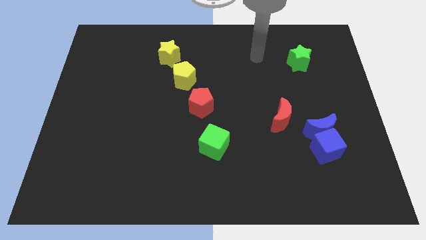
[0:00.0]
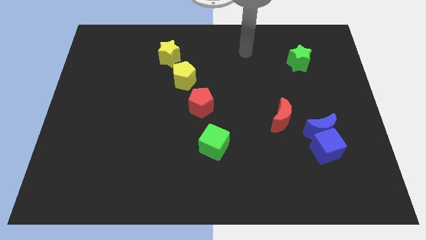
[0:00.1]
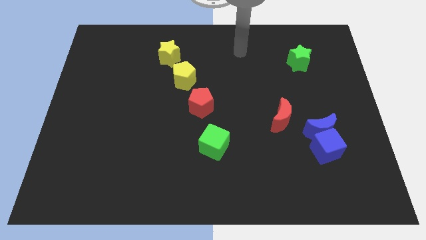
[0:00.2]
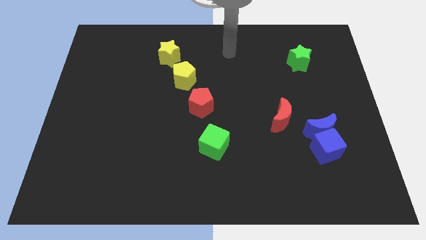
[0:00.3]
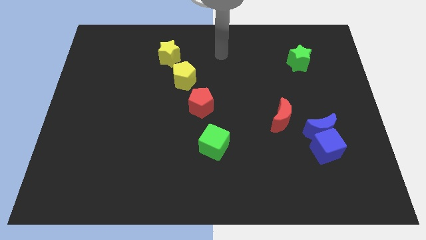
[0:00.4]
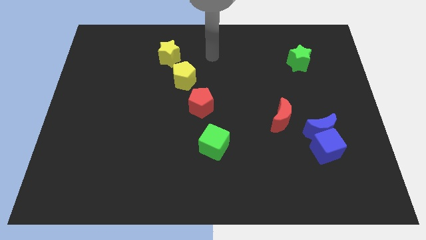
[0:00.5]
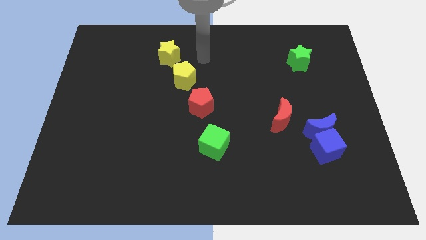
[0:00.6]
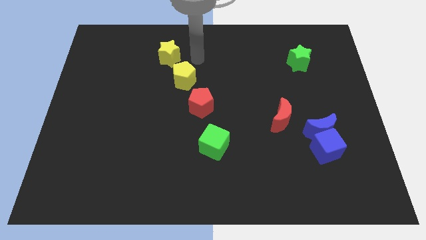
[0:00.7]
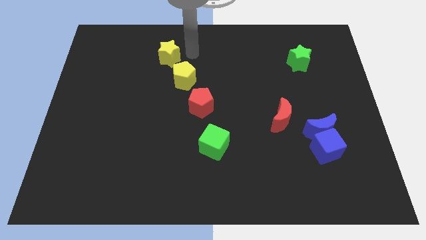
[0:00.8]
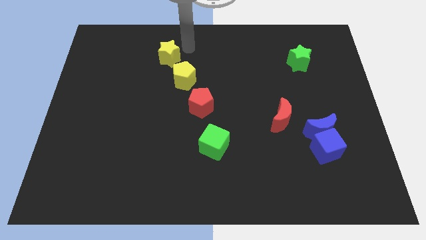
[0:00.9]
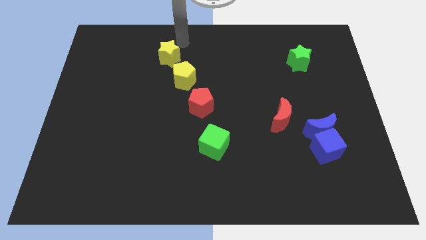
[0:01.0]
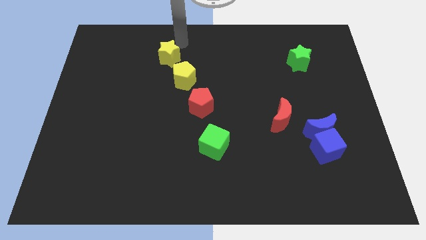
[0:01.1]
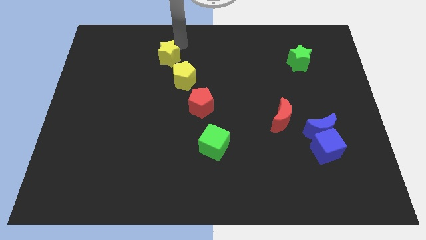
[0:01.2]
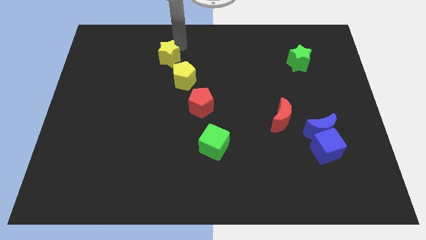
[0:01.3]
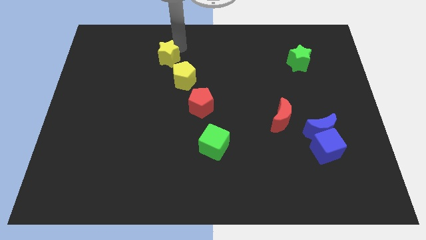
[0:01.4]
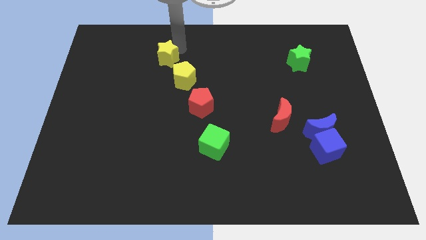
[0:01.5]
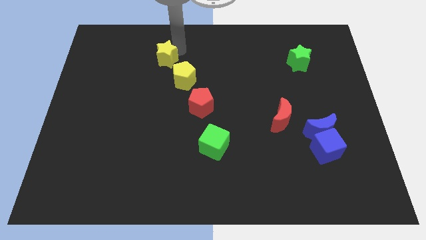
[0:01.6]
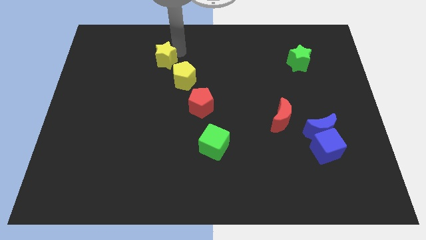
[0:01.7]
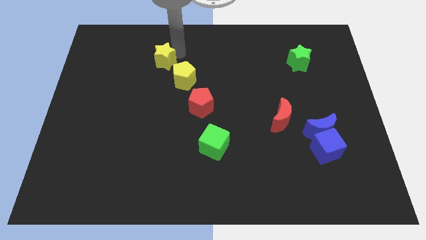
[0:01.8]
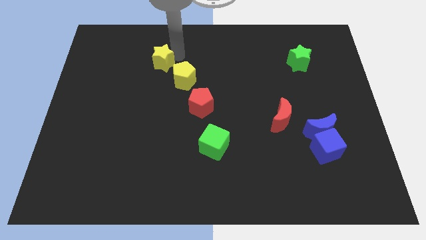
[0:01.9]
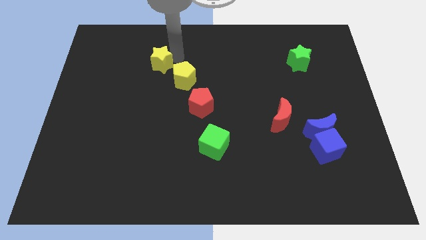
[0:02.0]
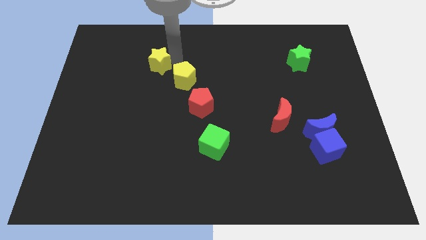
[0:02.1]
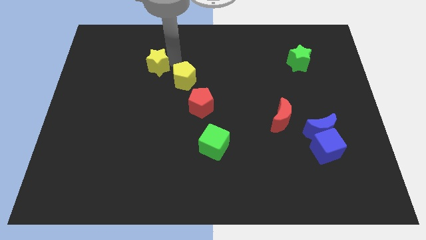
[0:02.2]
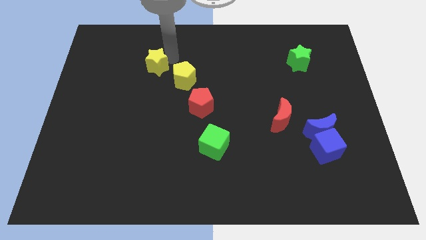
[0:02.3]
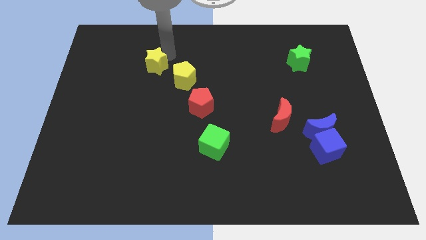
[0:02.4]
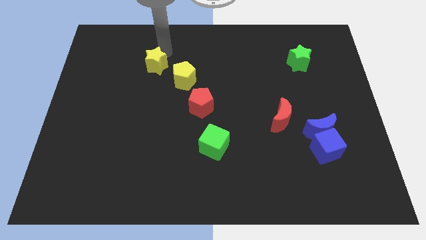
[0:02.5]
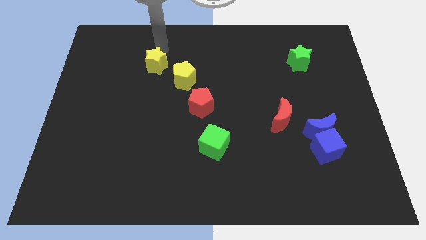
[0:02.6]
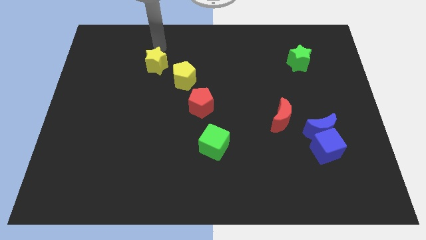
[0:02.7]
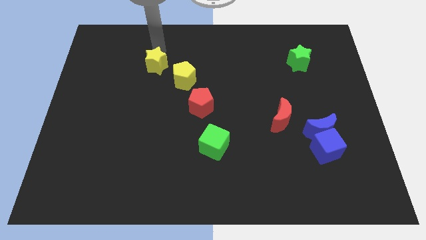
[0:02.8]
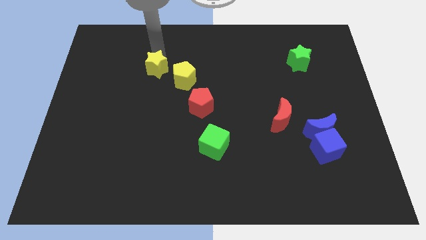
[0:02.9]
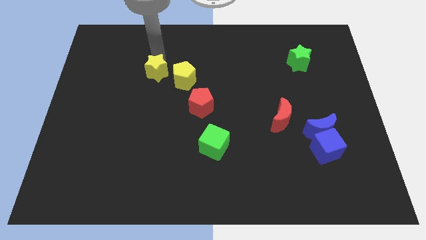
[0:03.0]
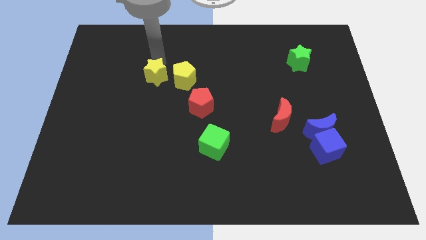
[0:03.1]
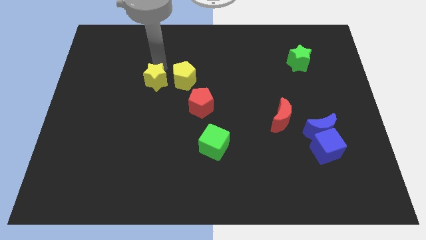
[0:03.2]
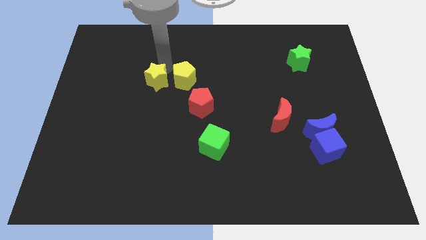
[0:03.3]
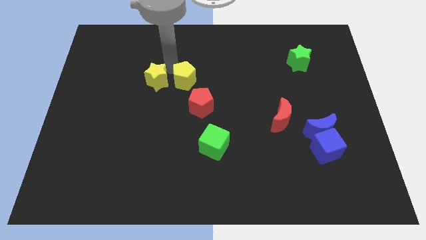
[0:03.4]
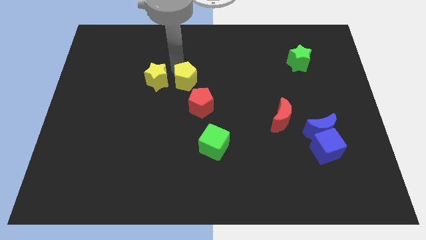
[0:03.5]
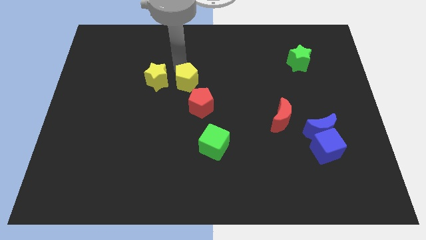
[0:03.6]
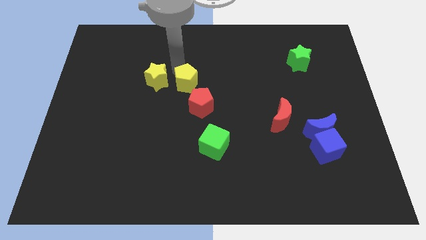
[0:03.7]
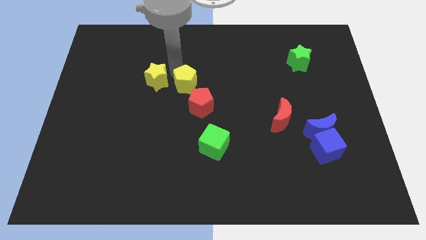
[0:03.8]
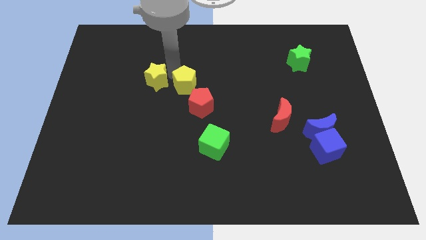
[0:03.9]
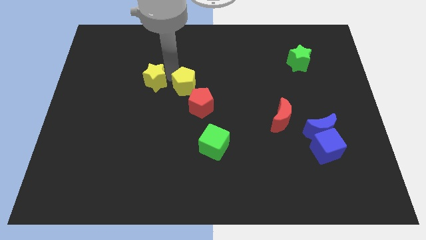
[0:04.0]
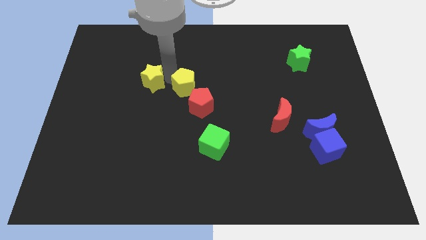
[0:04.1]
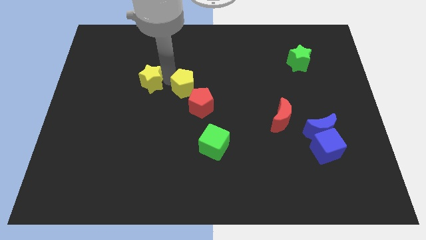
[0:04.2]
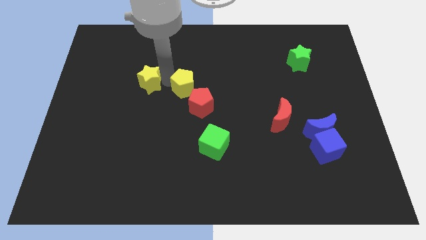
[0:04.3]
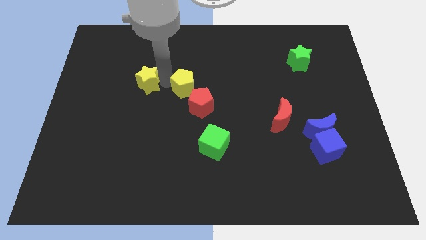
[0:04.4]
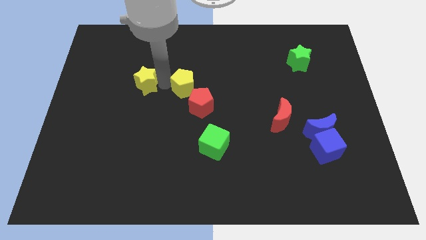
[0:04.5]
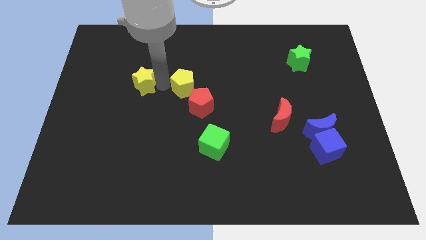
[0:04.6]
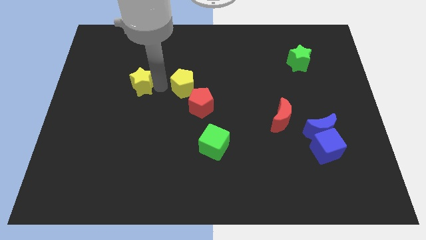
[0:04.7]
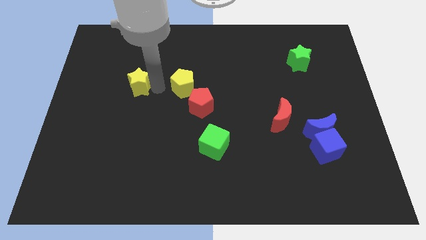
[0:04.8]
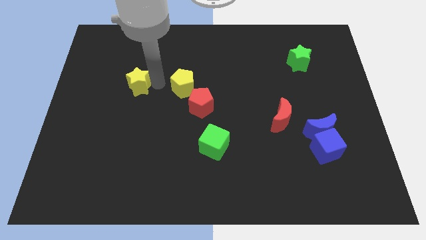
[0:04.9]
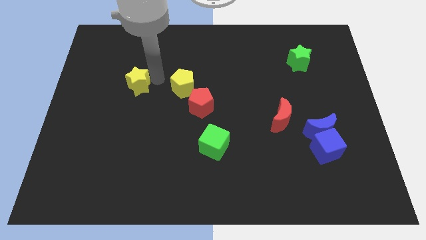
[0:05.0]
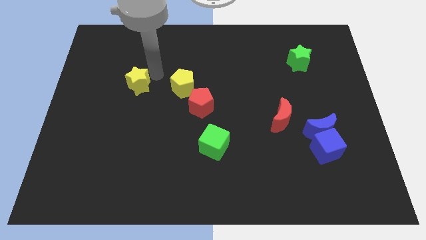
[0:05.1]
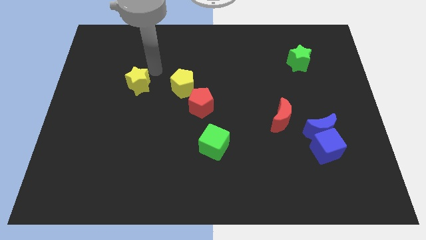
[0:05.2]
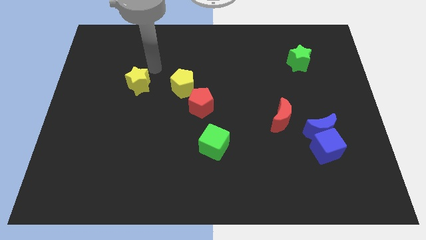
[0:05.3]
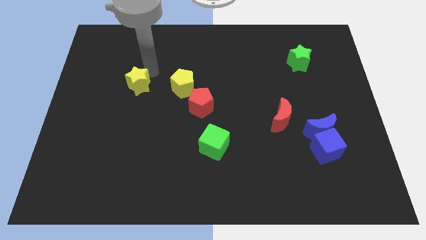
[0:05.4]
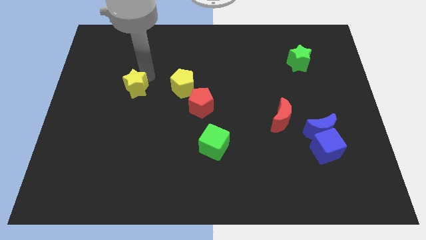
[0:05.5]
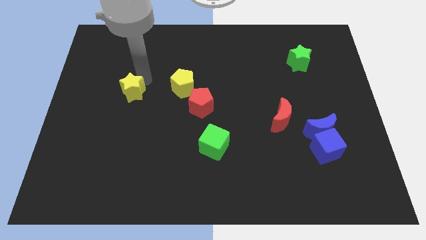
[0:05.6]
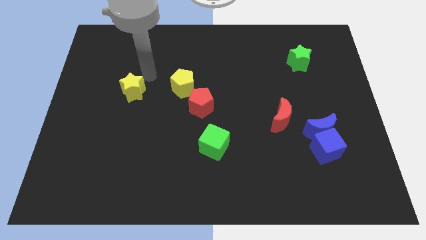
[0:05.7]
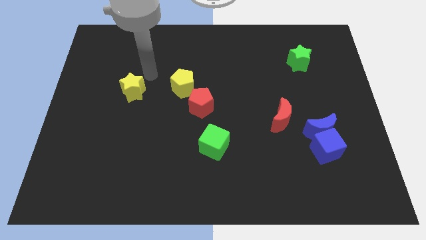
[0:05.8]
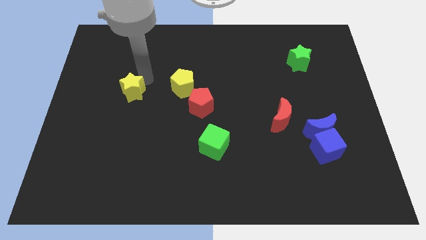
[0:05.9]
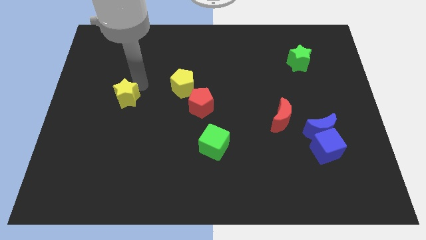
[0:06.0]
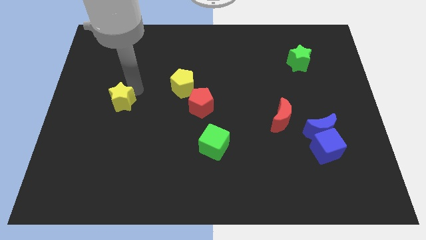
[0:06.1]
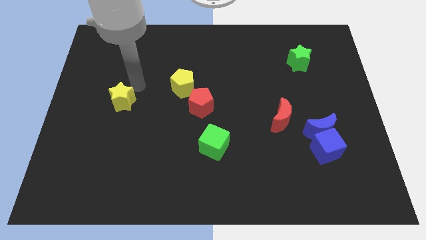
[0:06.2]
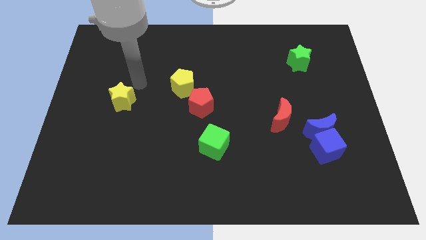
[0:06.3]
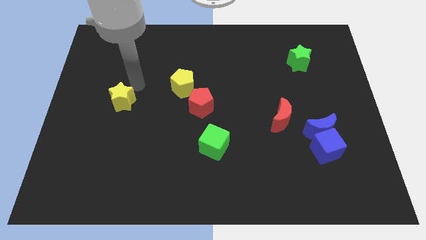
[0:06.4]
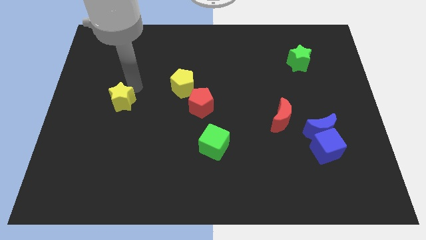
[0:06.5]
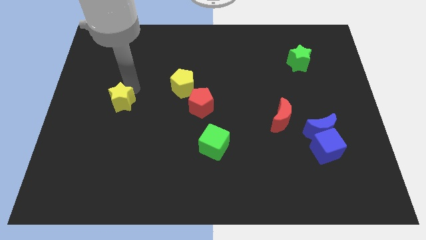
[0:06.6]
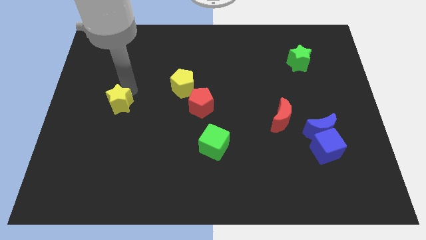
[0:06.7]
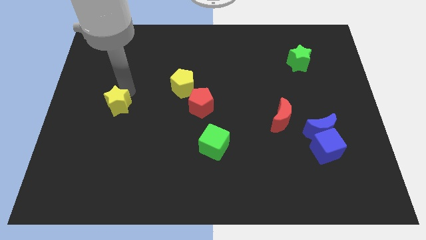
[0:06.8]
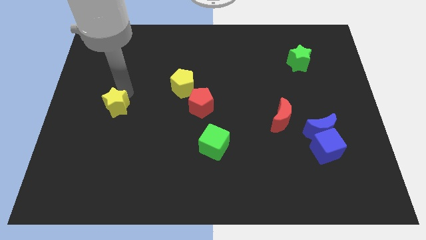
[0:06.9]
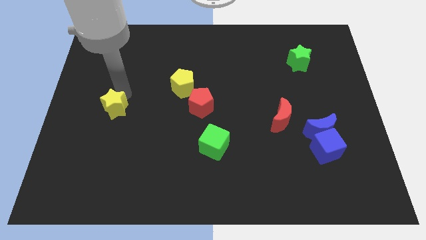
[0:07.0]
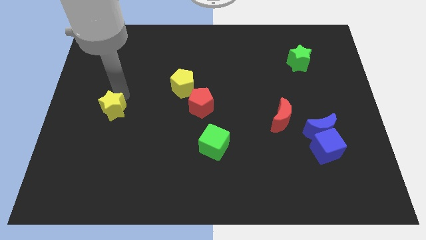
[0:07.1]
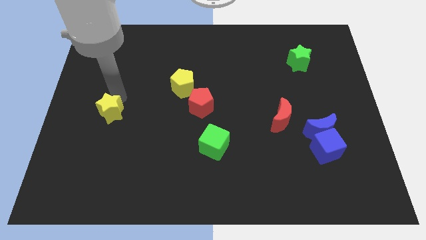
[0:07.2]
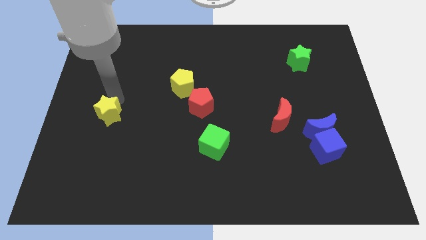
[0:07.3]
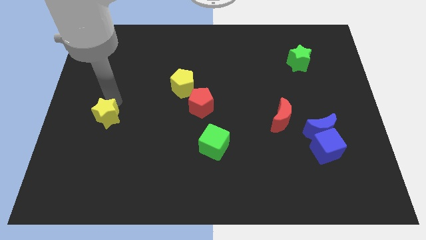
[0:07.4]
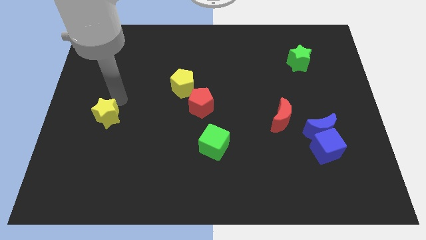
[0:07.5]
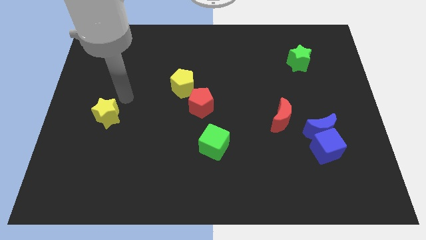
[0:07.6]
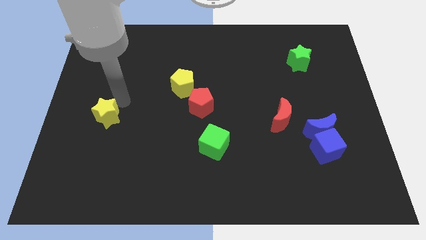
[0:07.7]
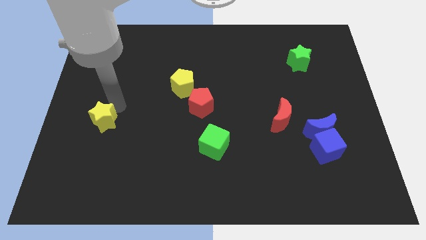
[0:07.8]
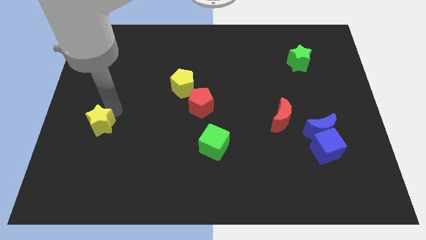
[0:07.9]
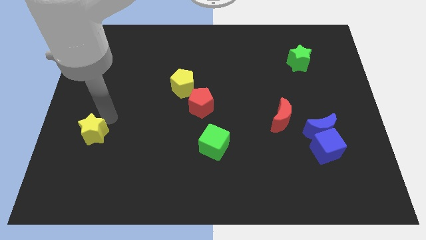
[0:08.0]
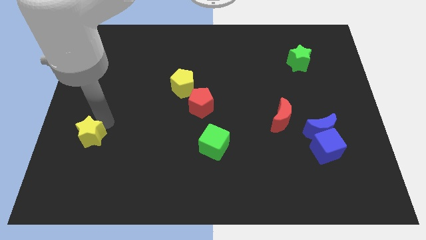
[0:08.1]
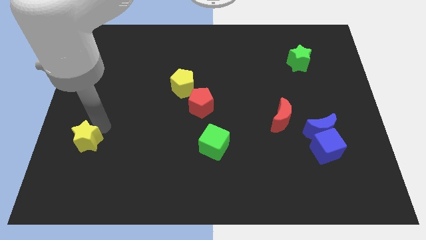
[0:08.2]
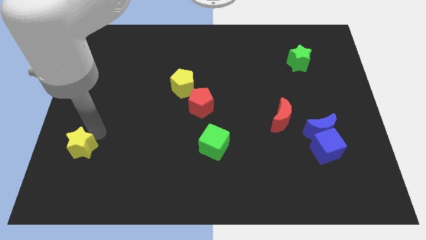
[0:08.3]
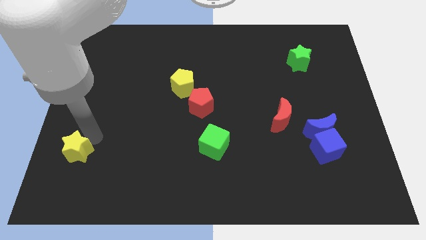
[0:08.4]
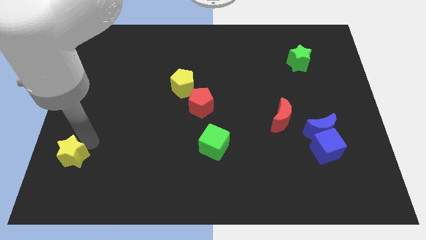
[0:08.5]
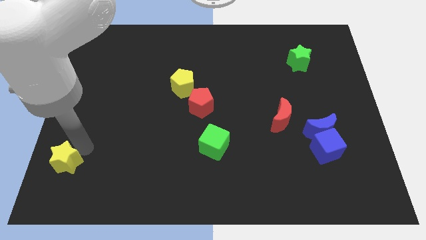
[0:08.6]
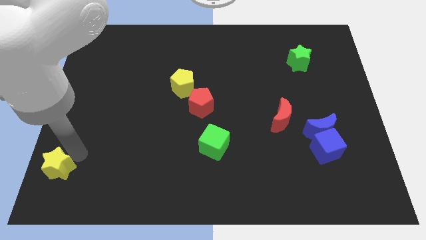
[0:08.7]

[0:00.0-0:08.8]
slide the yellow star to the bottom left corner
